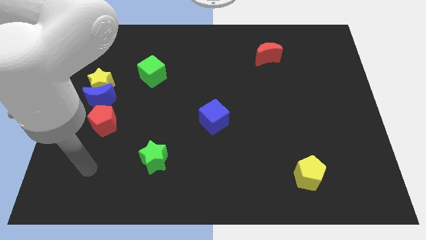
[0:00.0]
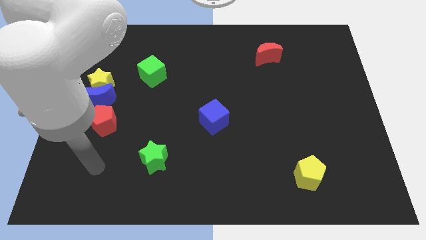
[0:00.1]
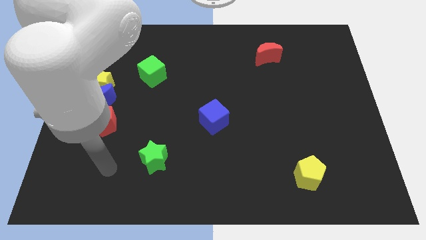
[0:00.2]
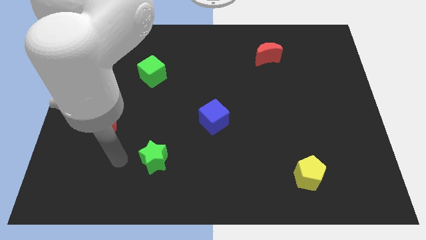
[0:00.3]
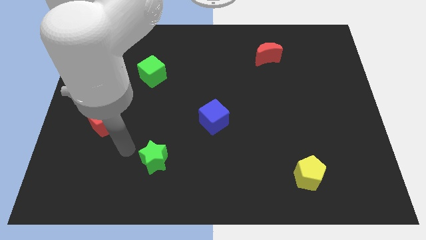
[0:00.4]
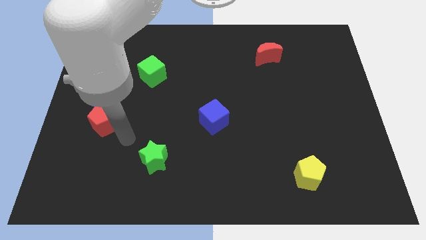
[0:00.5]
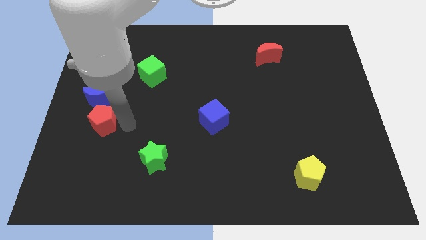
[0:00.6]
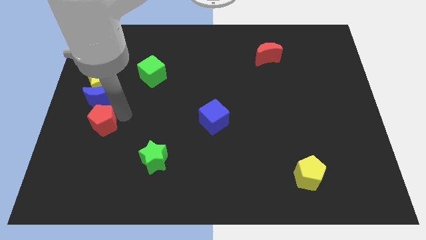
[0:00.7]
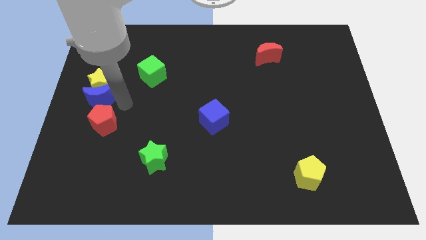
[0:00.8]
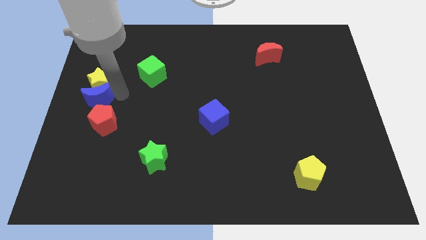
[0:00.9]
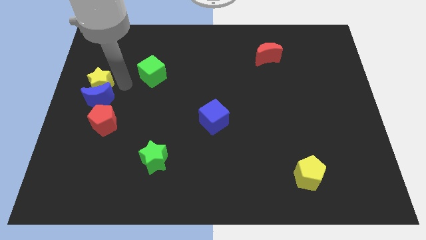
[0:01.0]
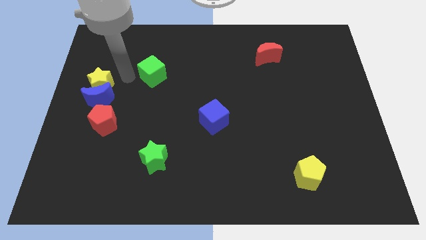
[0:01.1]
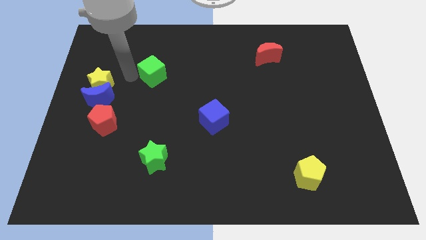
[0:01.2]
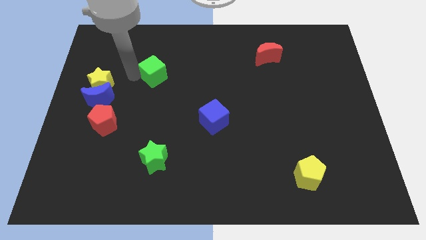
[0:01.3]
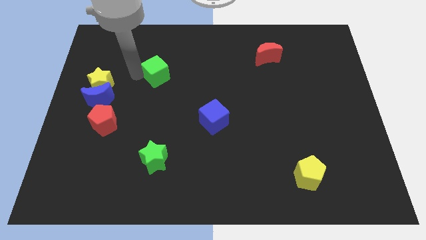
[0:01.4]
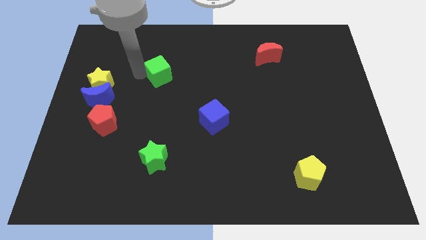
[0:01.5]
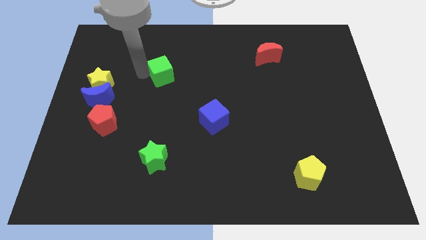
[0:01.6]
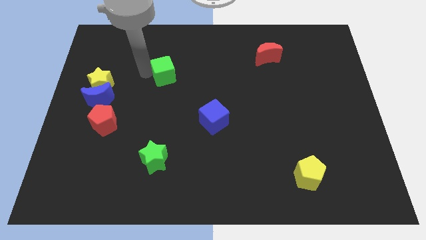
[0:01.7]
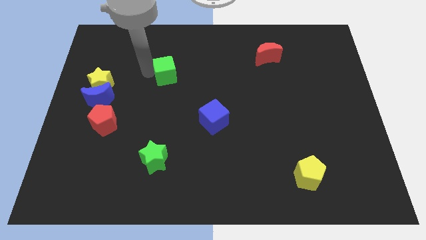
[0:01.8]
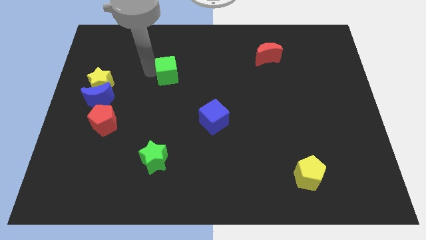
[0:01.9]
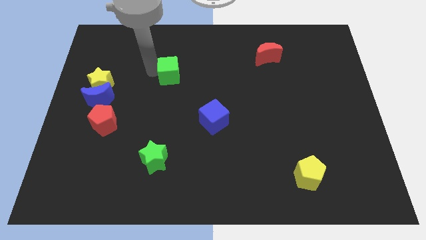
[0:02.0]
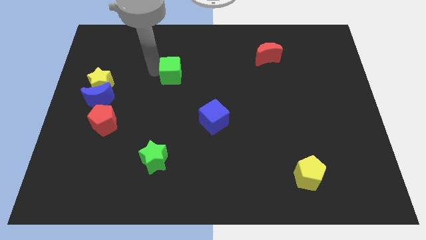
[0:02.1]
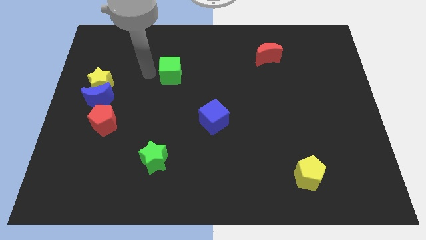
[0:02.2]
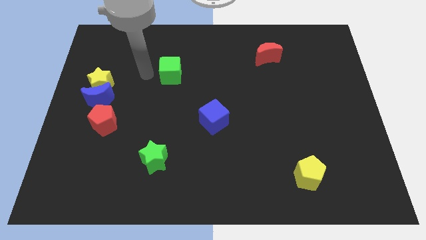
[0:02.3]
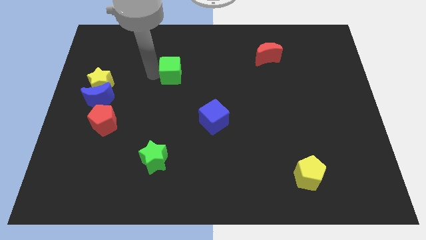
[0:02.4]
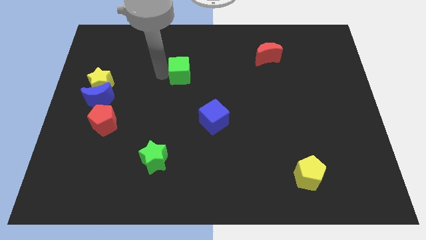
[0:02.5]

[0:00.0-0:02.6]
slide the green cube right somewhat

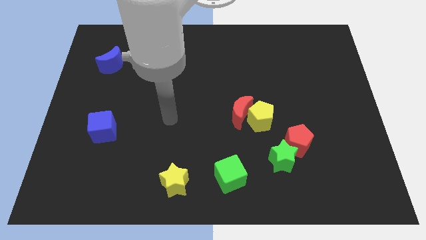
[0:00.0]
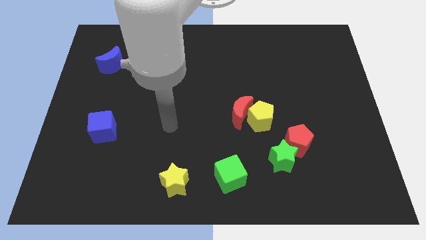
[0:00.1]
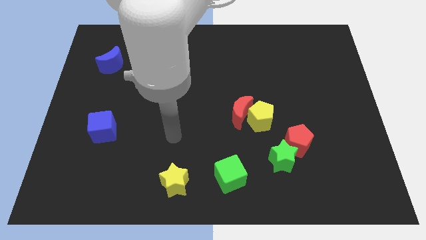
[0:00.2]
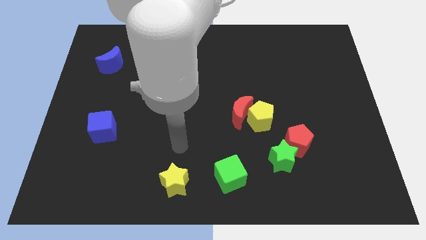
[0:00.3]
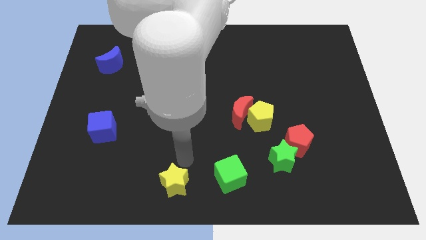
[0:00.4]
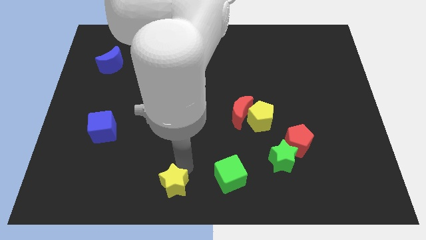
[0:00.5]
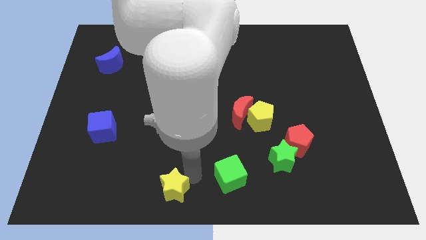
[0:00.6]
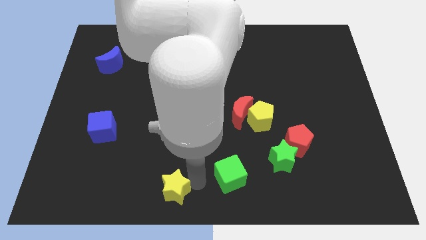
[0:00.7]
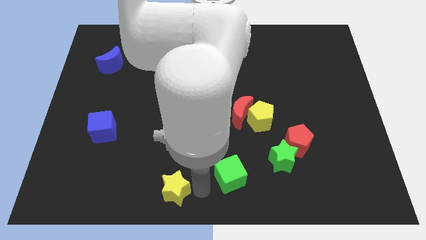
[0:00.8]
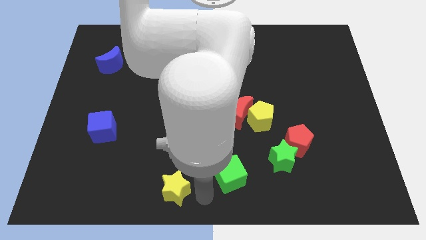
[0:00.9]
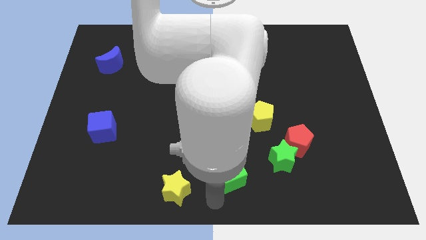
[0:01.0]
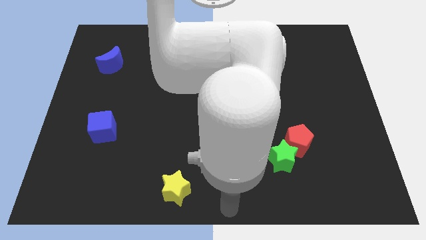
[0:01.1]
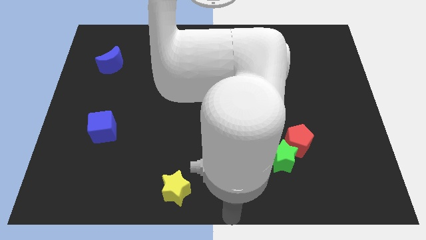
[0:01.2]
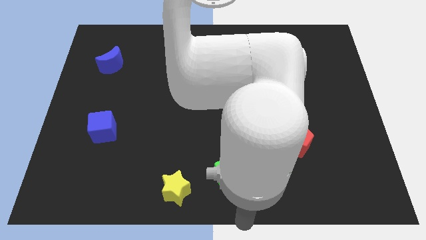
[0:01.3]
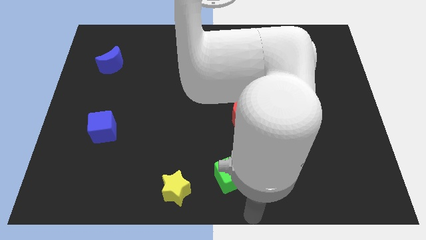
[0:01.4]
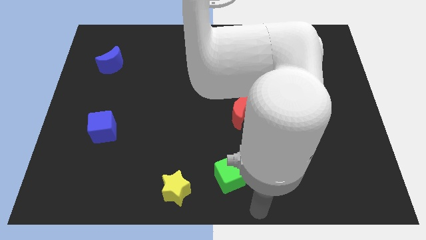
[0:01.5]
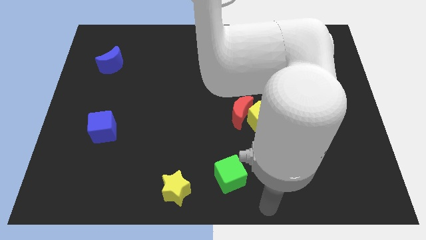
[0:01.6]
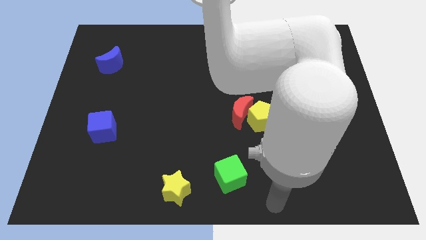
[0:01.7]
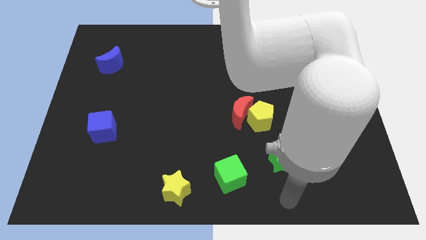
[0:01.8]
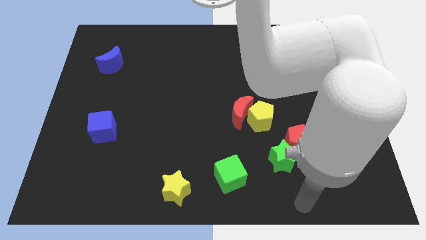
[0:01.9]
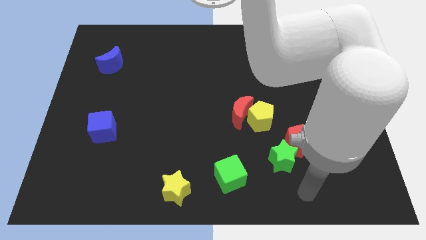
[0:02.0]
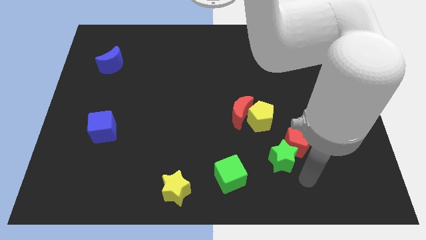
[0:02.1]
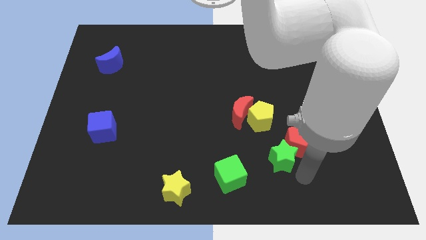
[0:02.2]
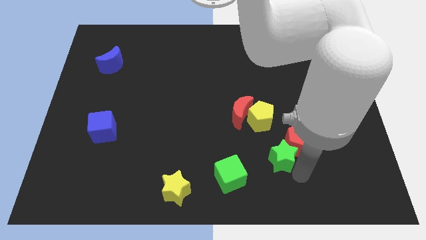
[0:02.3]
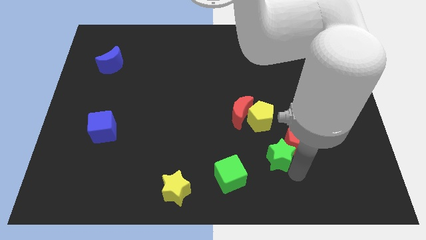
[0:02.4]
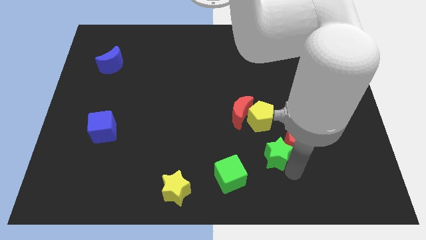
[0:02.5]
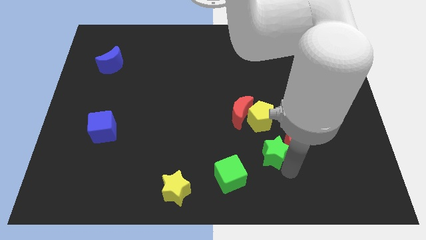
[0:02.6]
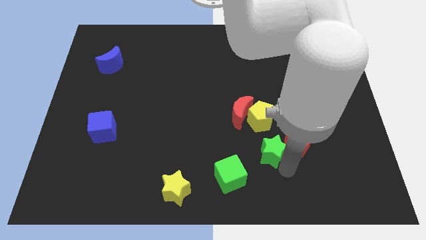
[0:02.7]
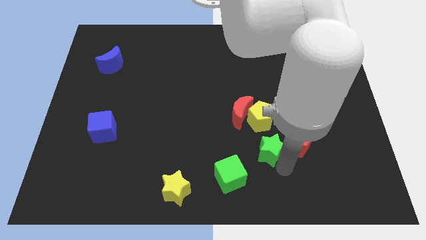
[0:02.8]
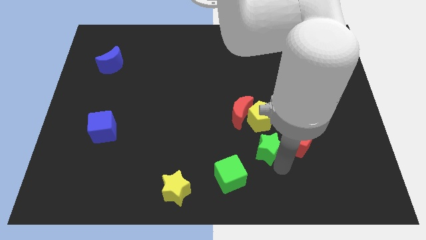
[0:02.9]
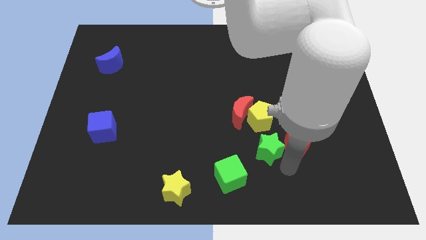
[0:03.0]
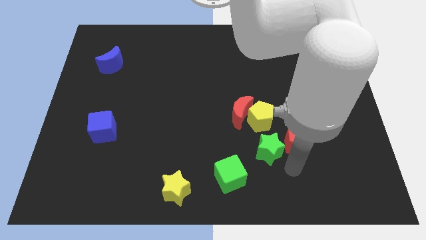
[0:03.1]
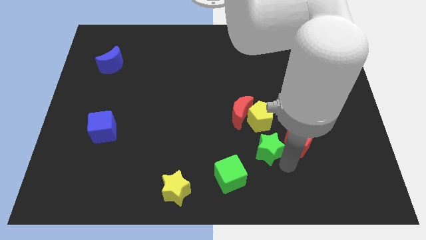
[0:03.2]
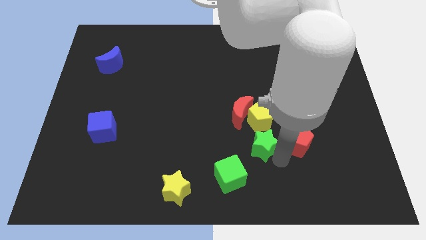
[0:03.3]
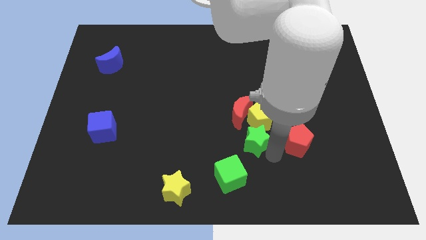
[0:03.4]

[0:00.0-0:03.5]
move the green star slightly up and then to the left

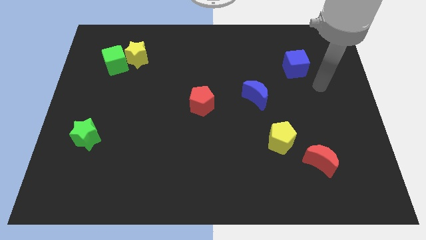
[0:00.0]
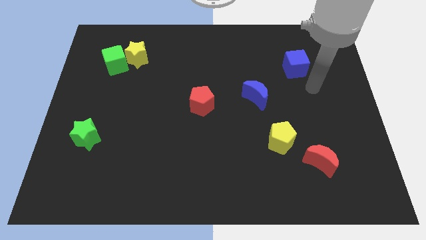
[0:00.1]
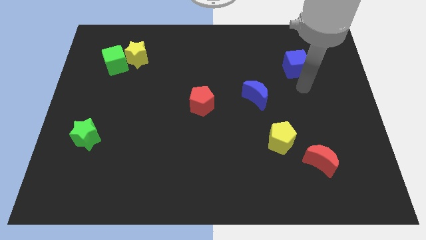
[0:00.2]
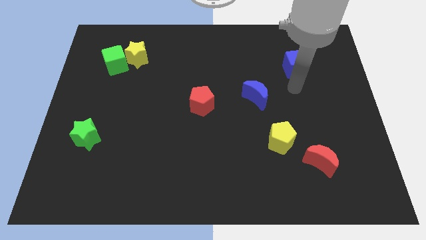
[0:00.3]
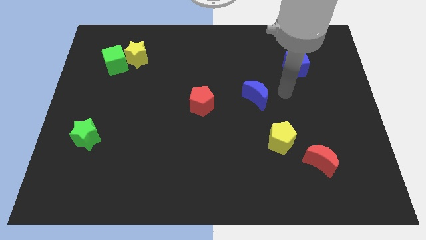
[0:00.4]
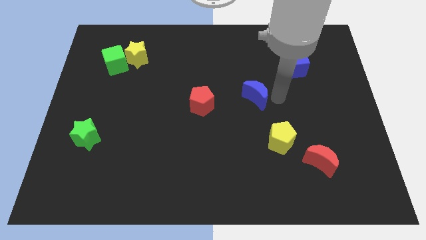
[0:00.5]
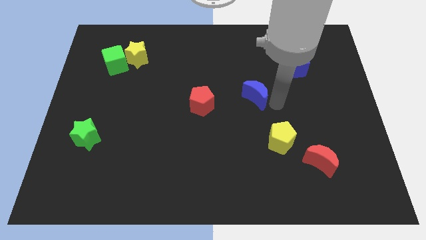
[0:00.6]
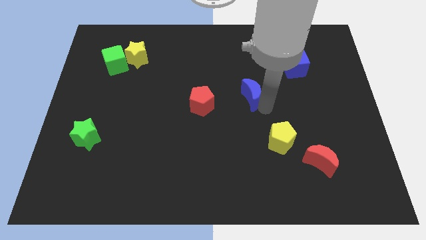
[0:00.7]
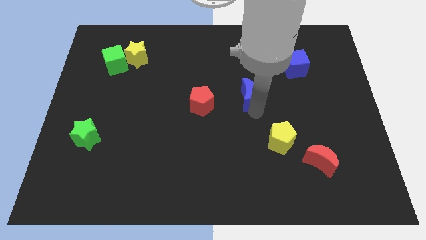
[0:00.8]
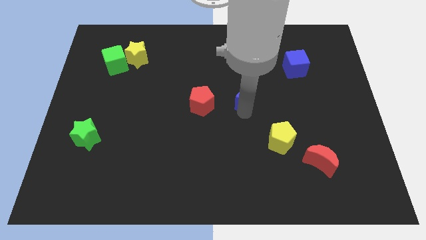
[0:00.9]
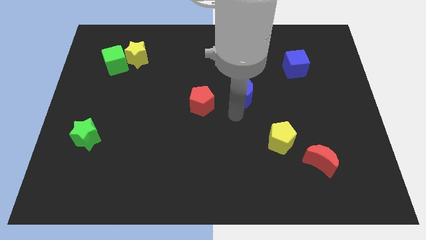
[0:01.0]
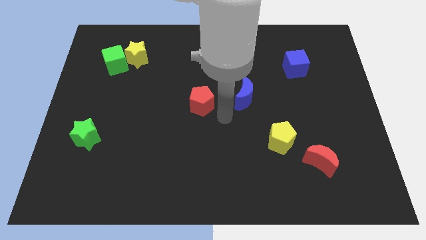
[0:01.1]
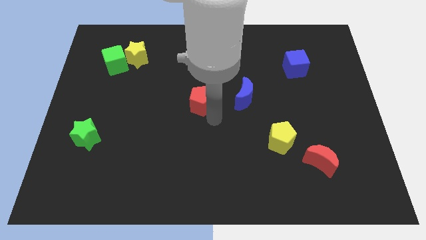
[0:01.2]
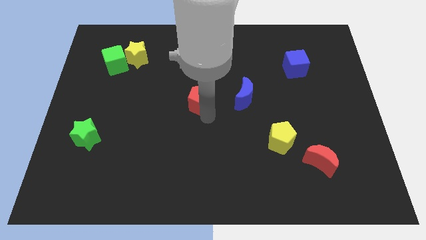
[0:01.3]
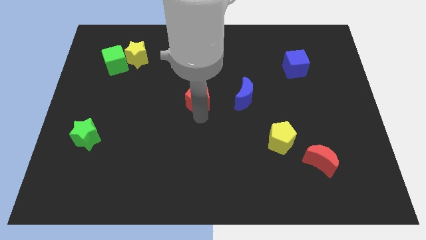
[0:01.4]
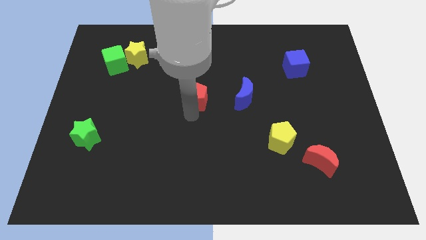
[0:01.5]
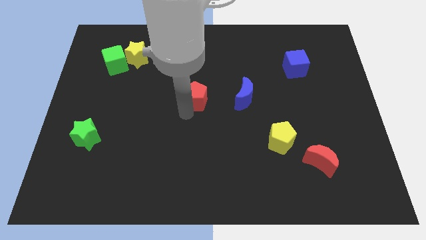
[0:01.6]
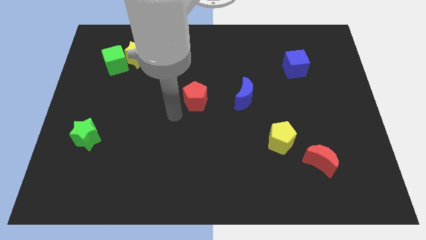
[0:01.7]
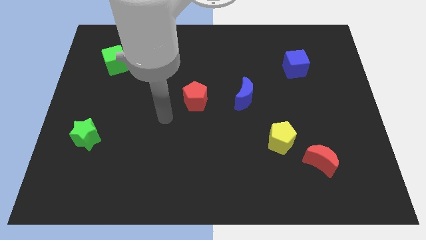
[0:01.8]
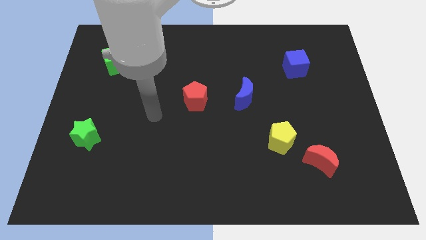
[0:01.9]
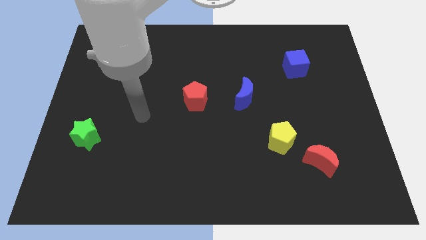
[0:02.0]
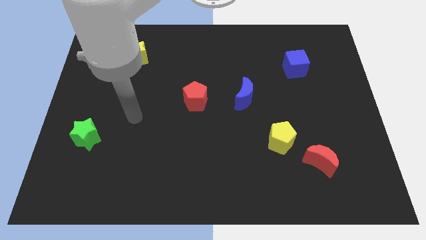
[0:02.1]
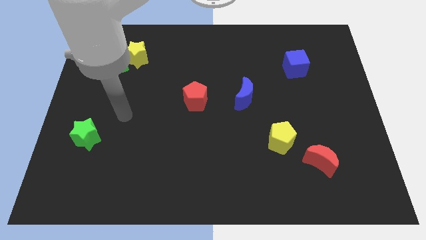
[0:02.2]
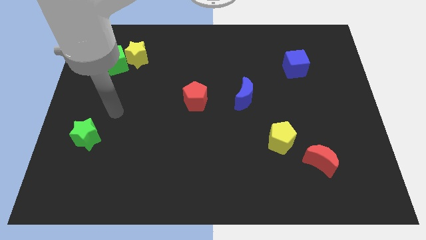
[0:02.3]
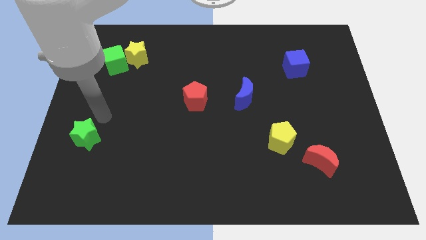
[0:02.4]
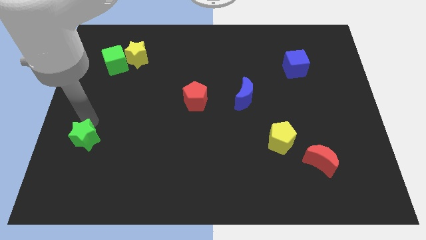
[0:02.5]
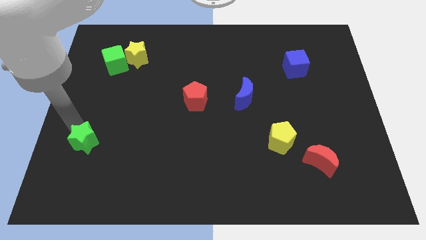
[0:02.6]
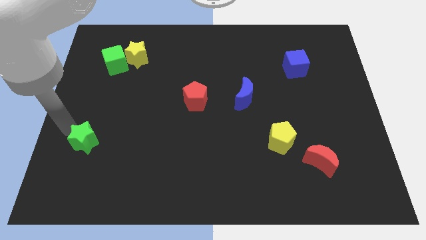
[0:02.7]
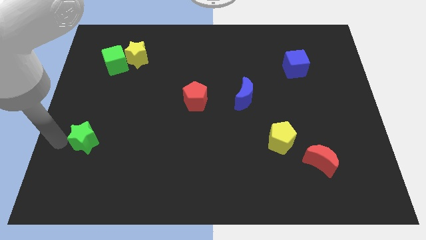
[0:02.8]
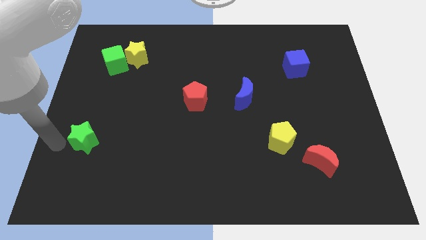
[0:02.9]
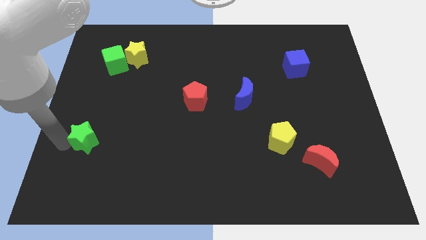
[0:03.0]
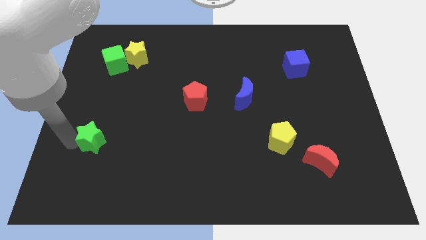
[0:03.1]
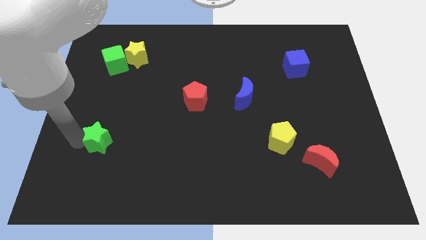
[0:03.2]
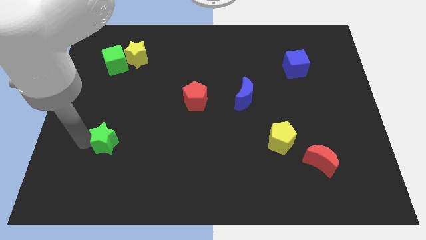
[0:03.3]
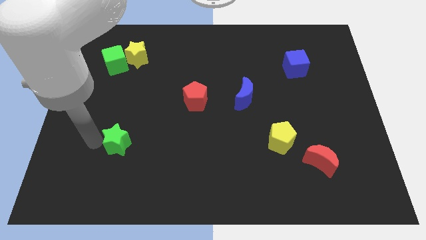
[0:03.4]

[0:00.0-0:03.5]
slide the green star a bit to the right
